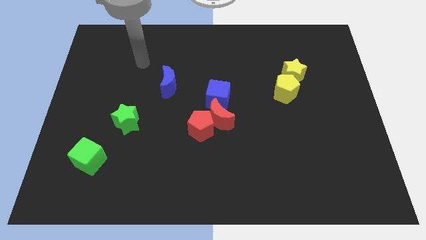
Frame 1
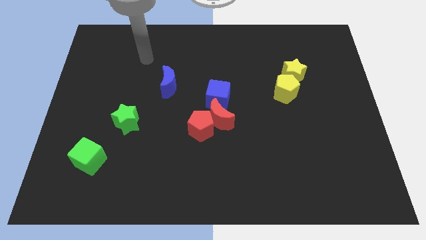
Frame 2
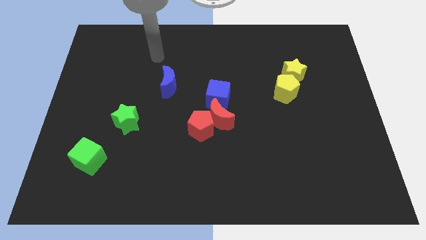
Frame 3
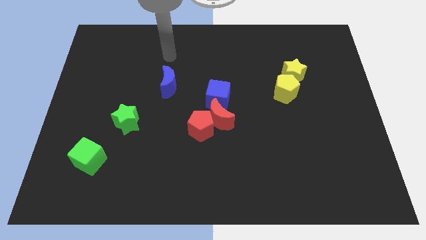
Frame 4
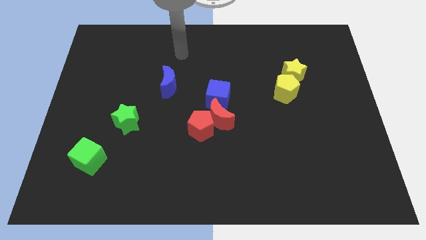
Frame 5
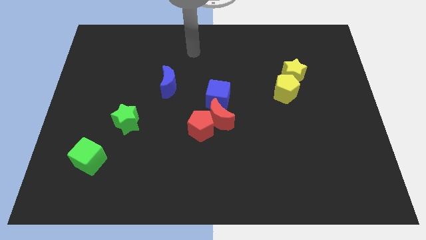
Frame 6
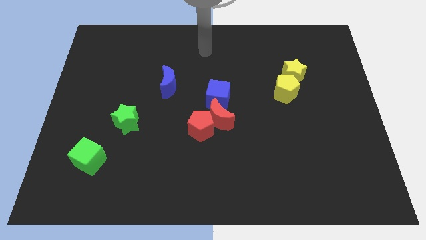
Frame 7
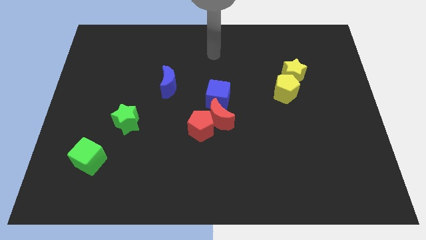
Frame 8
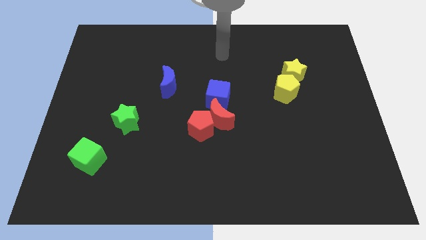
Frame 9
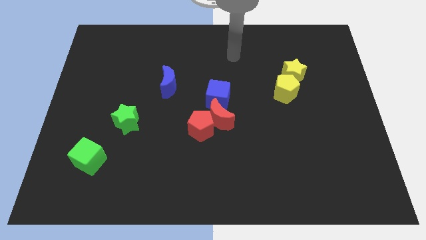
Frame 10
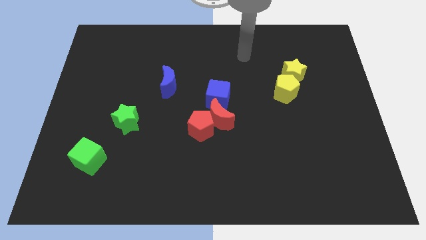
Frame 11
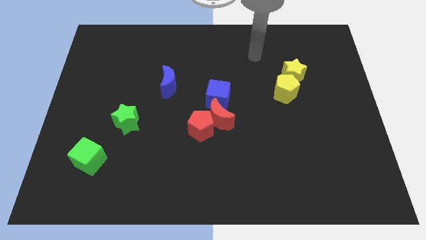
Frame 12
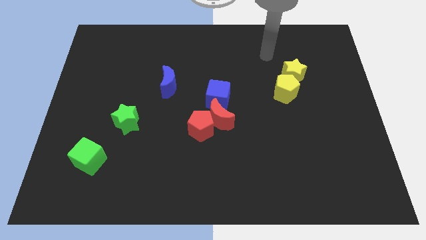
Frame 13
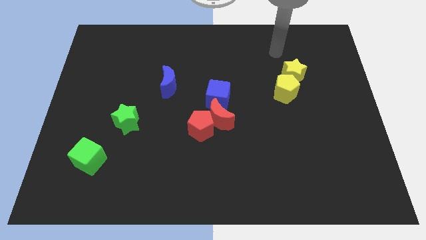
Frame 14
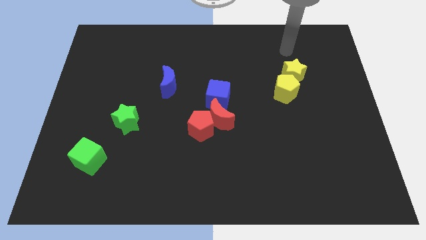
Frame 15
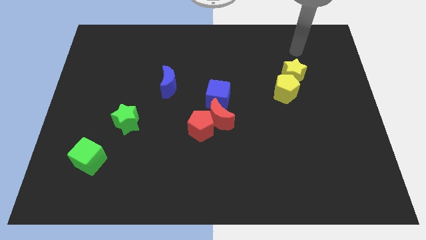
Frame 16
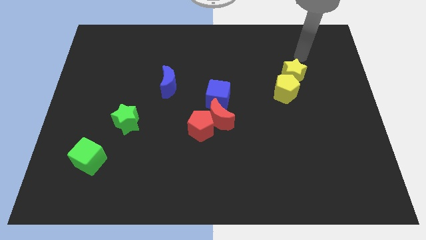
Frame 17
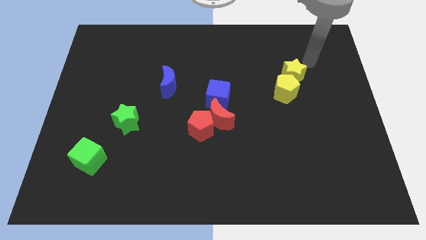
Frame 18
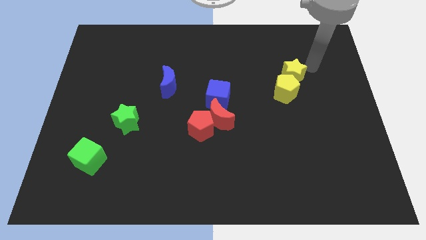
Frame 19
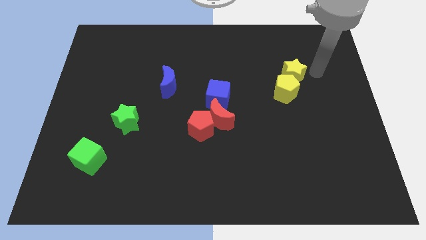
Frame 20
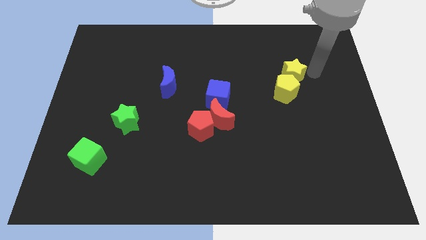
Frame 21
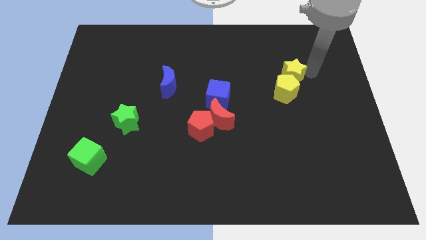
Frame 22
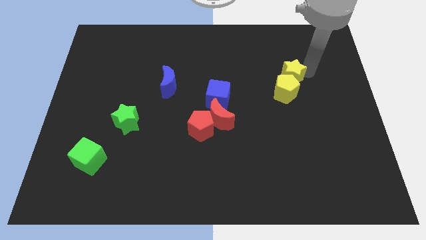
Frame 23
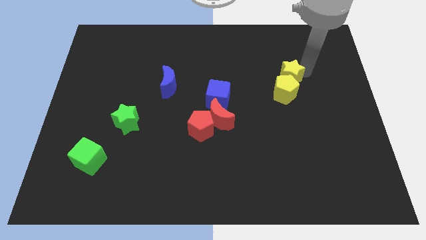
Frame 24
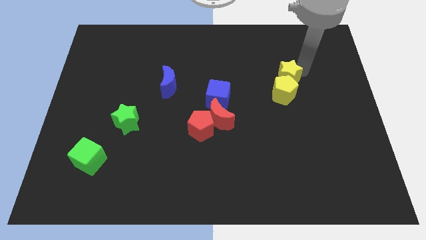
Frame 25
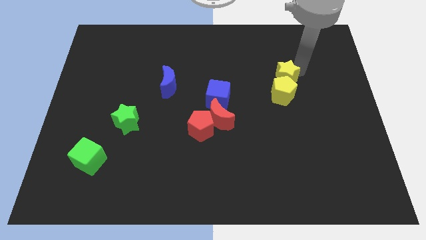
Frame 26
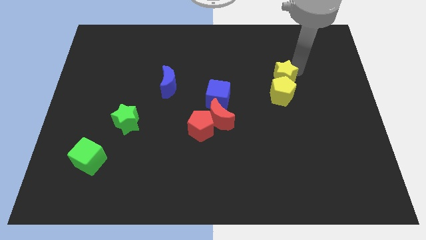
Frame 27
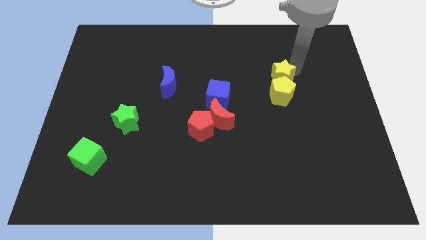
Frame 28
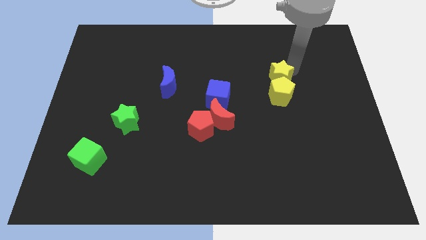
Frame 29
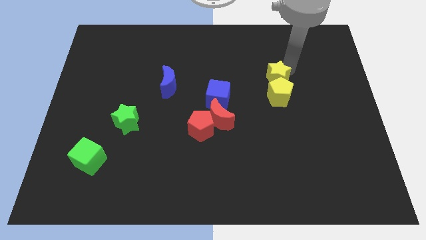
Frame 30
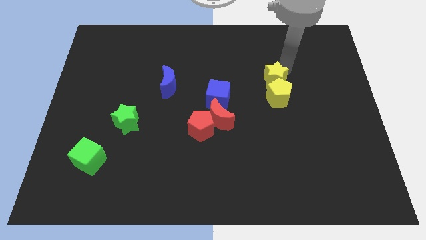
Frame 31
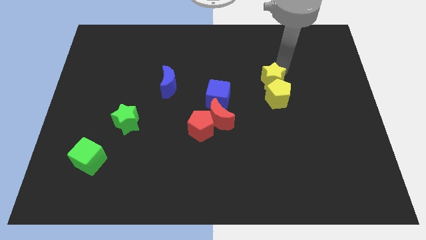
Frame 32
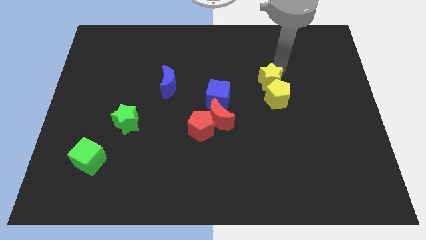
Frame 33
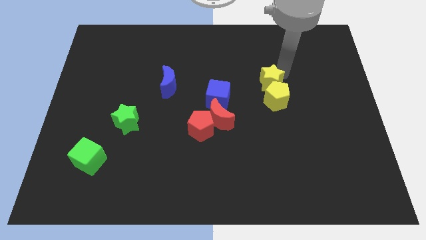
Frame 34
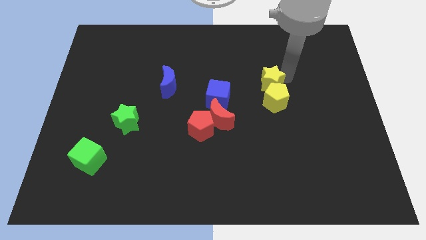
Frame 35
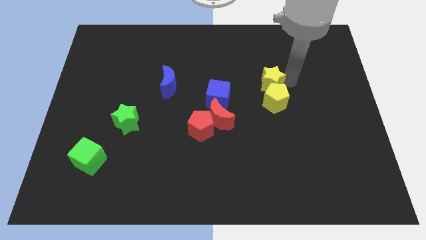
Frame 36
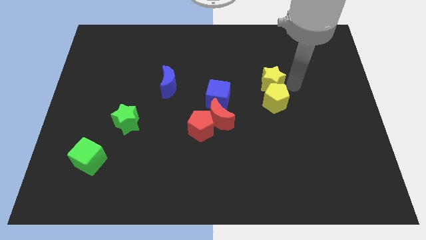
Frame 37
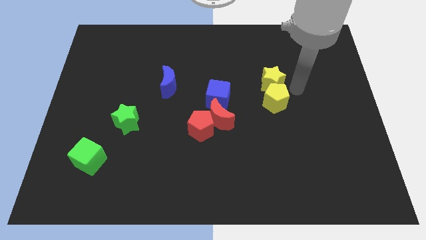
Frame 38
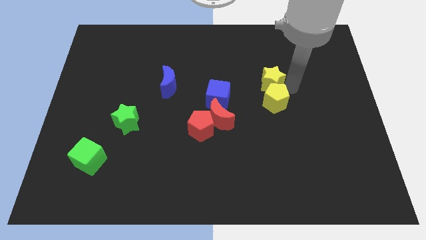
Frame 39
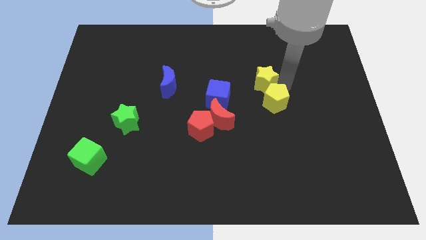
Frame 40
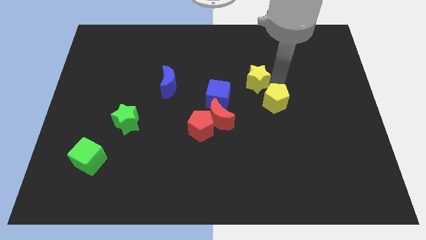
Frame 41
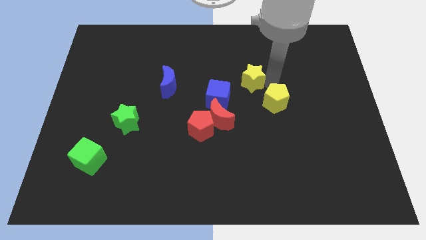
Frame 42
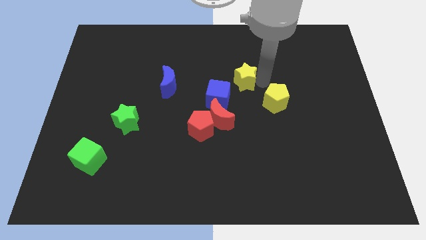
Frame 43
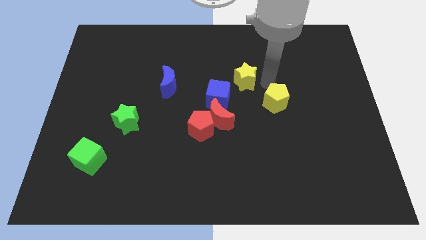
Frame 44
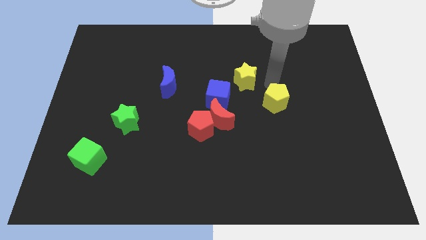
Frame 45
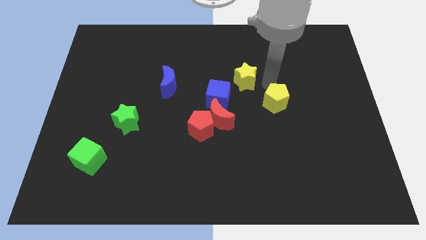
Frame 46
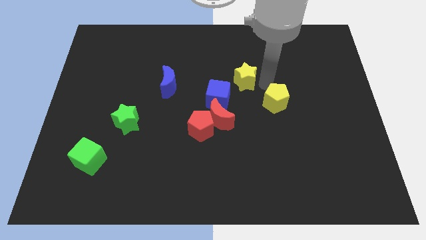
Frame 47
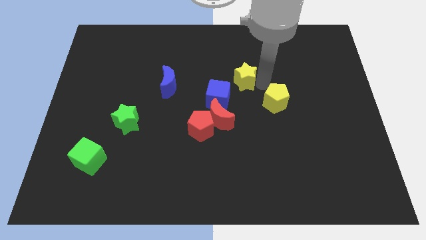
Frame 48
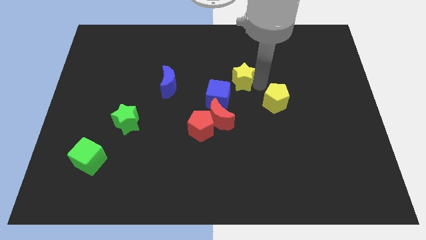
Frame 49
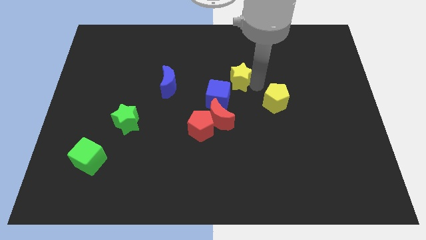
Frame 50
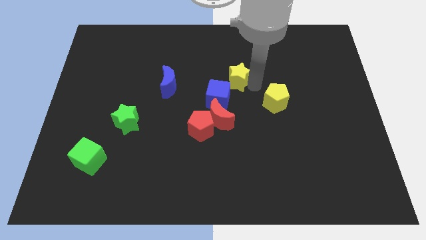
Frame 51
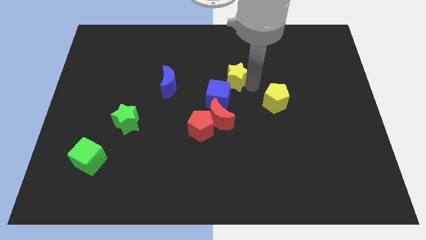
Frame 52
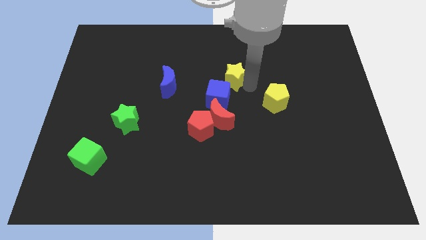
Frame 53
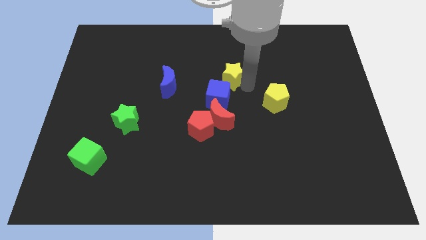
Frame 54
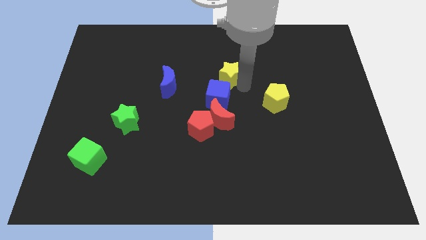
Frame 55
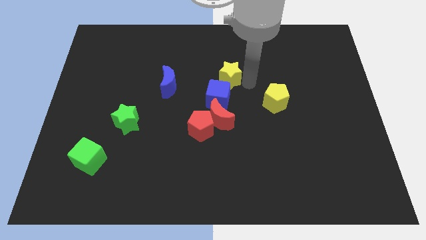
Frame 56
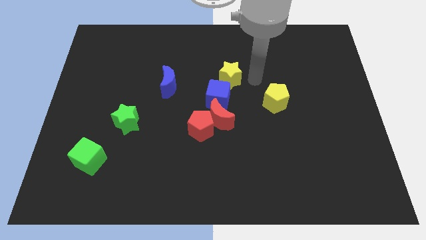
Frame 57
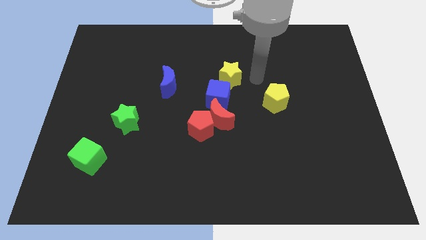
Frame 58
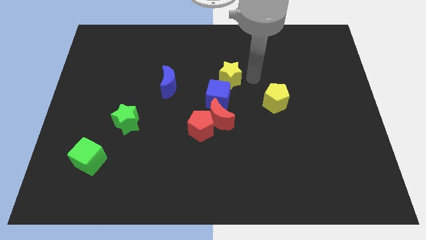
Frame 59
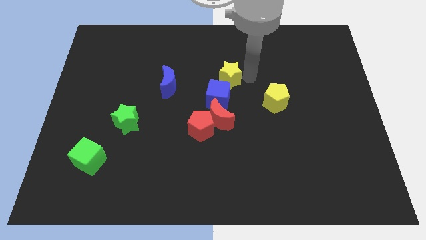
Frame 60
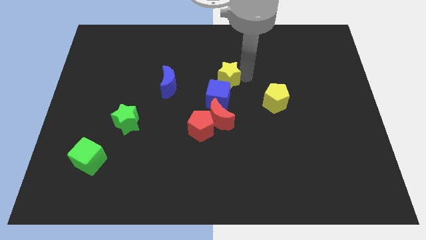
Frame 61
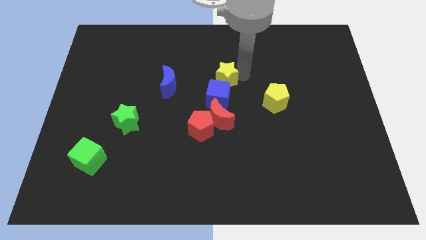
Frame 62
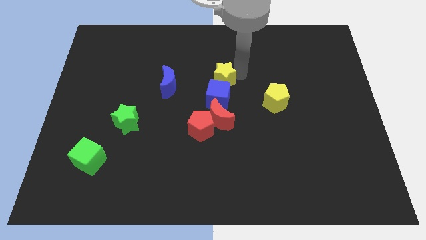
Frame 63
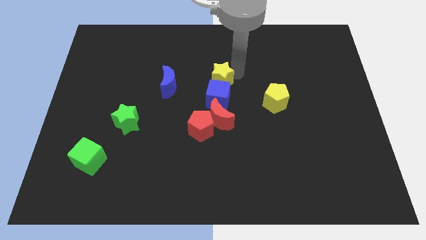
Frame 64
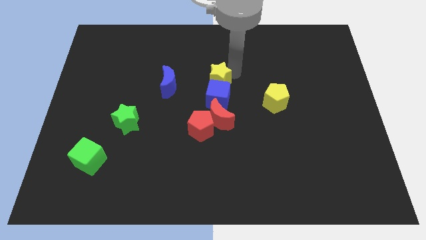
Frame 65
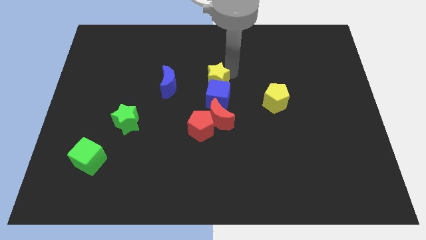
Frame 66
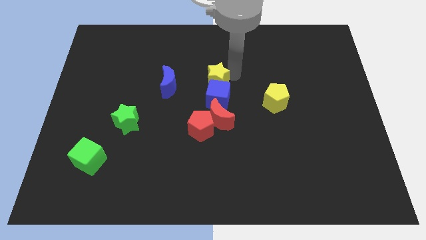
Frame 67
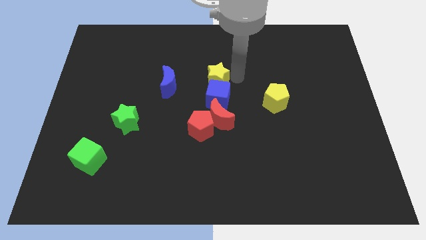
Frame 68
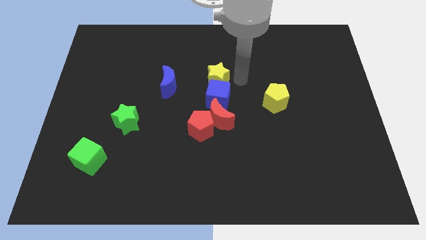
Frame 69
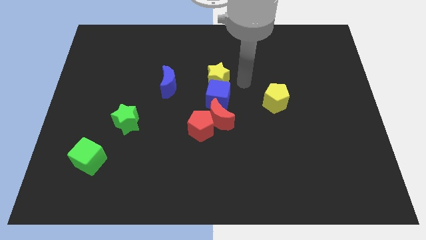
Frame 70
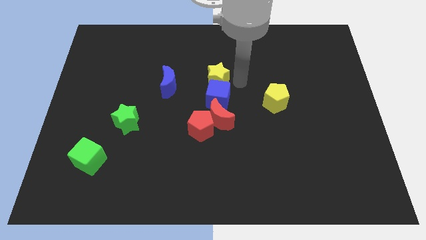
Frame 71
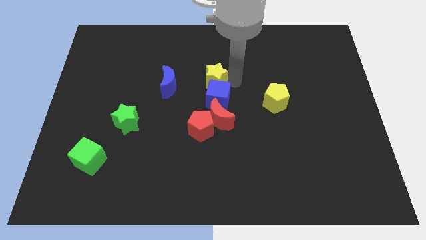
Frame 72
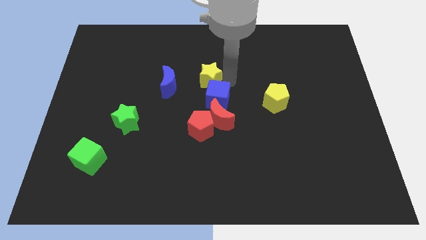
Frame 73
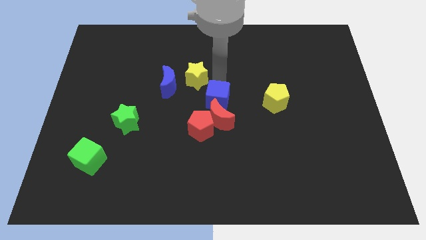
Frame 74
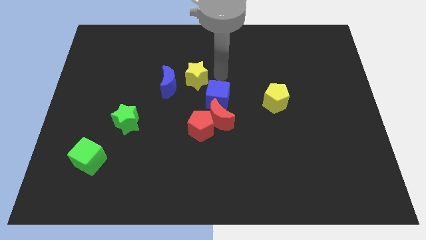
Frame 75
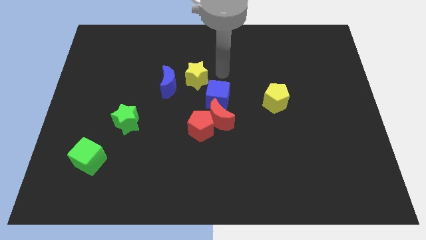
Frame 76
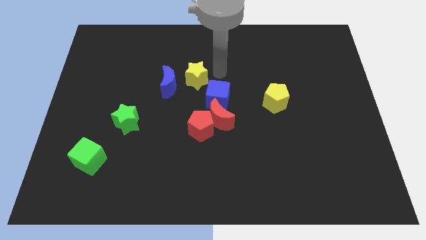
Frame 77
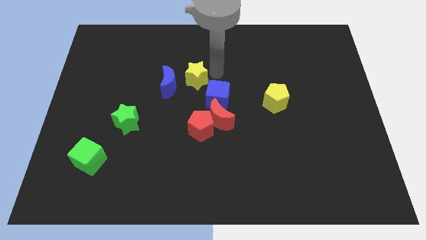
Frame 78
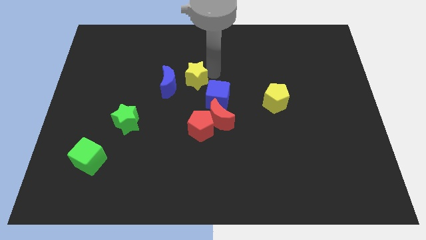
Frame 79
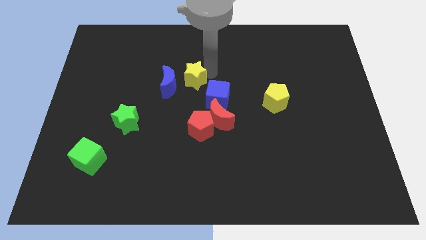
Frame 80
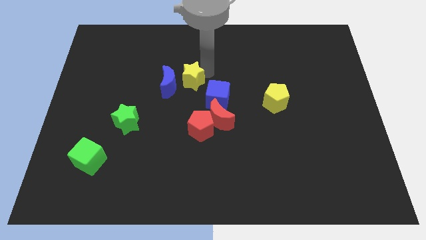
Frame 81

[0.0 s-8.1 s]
push the yellow star towards the blue moon
